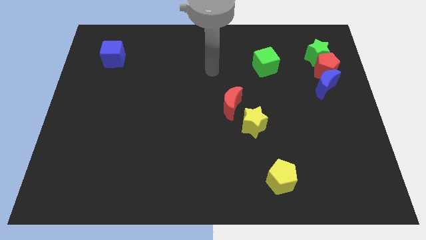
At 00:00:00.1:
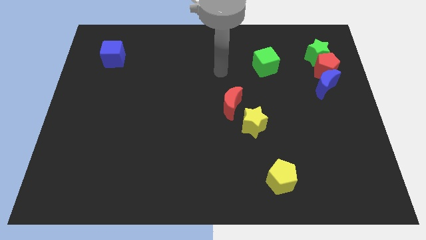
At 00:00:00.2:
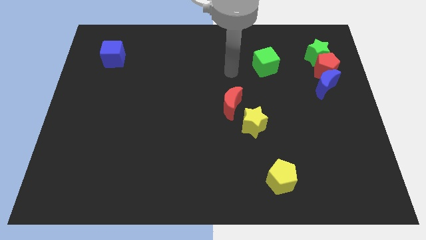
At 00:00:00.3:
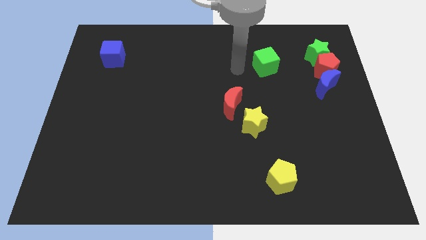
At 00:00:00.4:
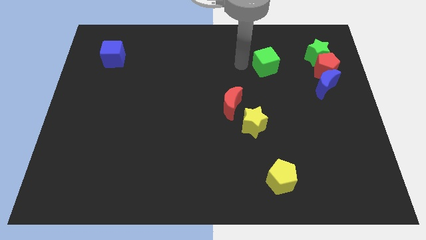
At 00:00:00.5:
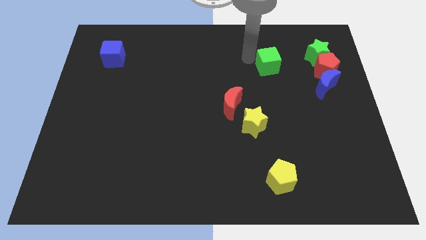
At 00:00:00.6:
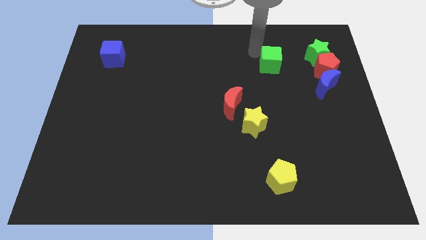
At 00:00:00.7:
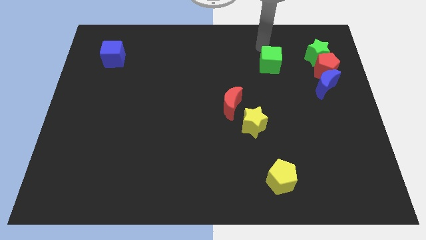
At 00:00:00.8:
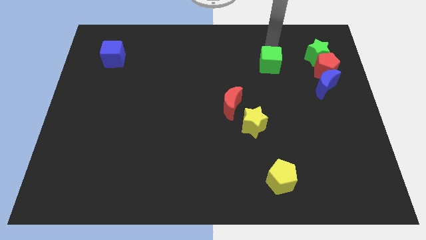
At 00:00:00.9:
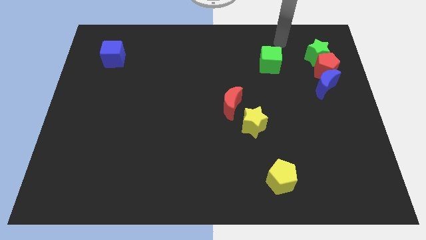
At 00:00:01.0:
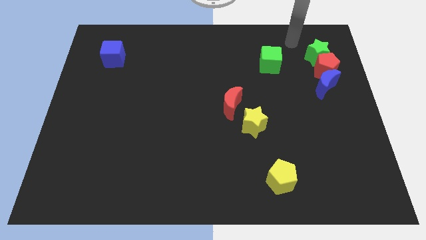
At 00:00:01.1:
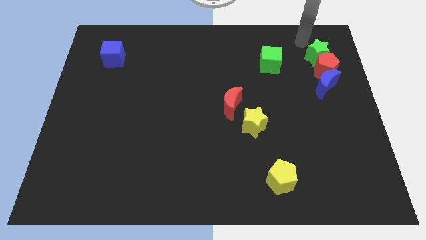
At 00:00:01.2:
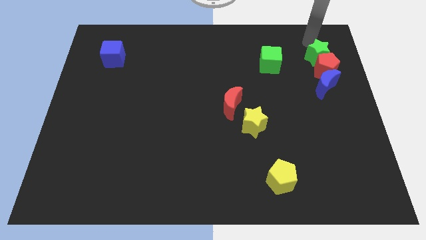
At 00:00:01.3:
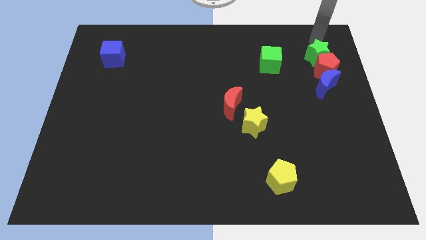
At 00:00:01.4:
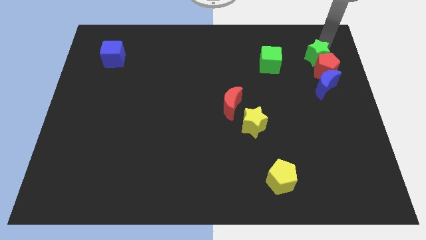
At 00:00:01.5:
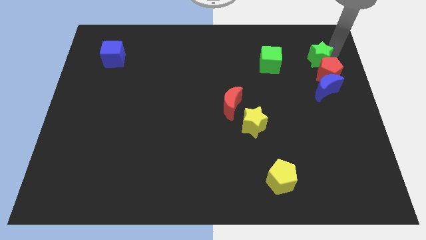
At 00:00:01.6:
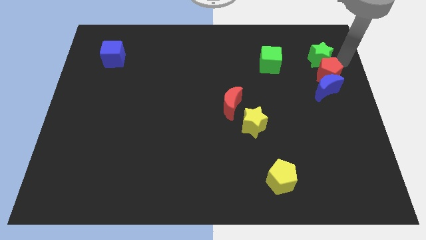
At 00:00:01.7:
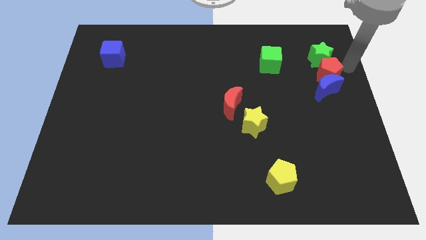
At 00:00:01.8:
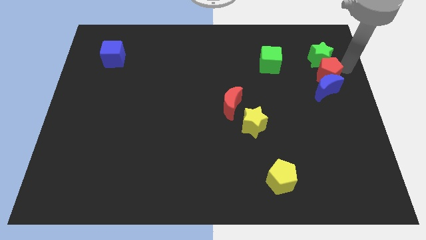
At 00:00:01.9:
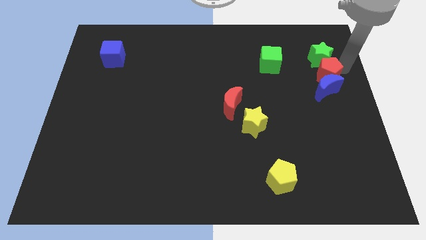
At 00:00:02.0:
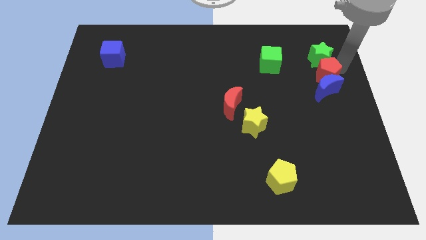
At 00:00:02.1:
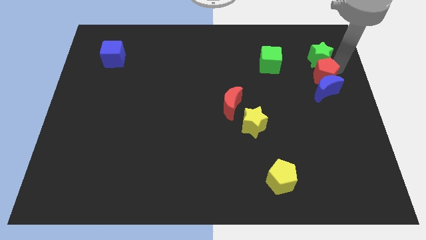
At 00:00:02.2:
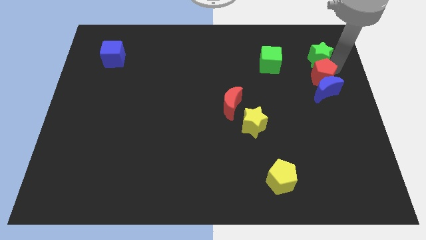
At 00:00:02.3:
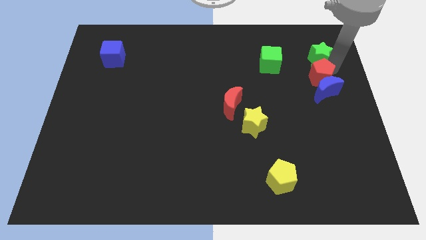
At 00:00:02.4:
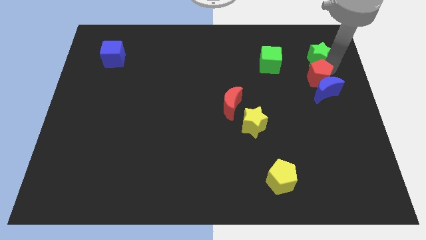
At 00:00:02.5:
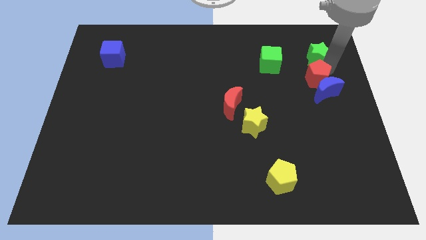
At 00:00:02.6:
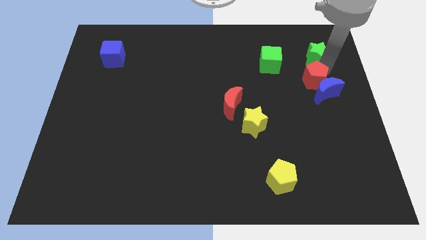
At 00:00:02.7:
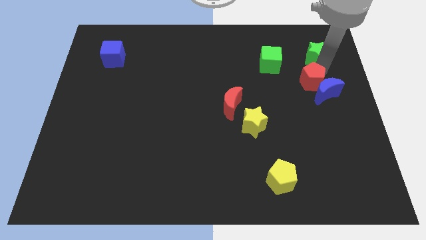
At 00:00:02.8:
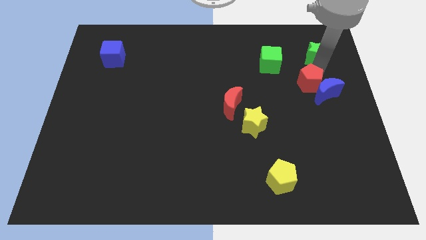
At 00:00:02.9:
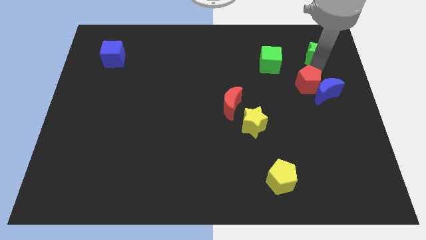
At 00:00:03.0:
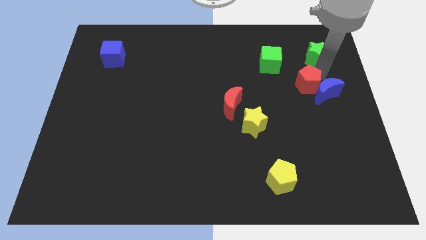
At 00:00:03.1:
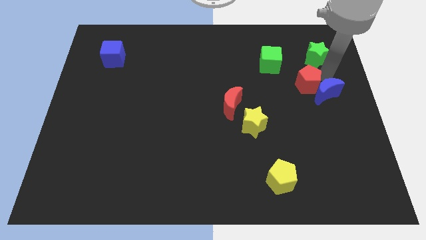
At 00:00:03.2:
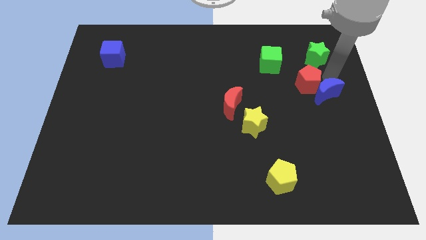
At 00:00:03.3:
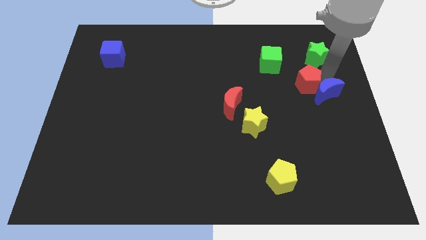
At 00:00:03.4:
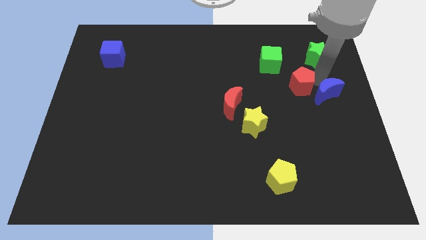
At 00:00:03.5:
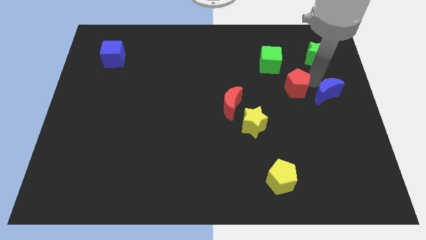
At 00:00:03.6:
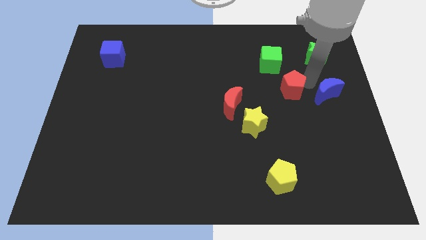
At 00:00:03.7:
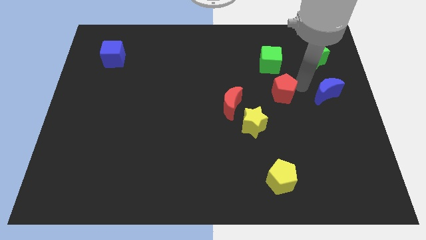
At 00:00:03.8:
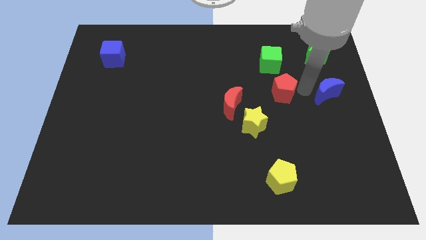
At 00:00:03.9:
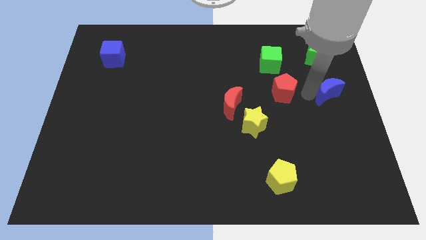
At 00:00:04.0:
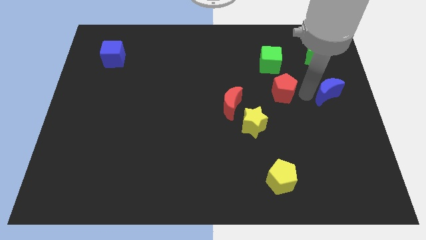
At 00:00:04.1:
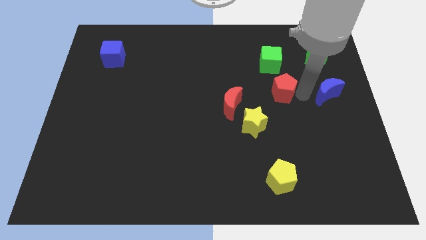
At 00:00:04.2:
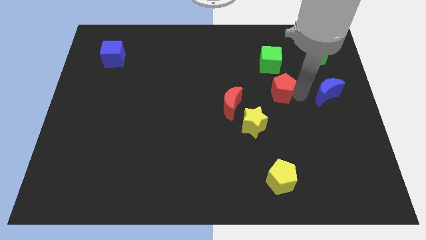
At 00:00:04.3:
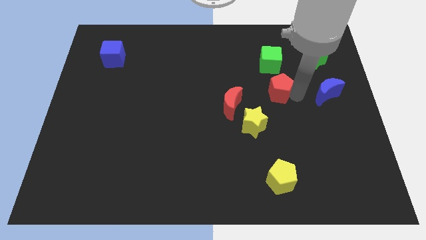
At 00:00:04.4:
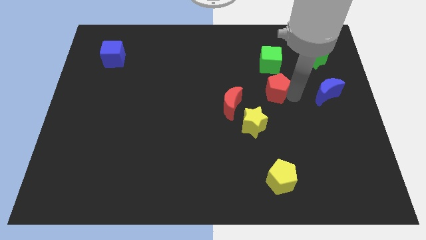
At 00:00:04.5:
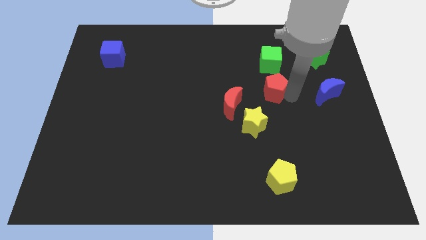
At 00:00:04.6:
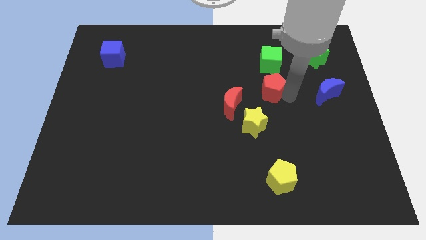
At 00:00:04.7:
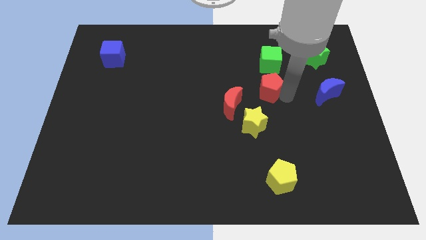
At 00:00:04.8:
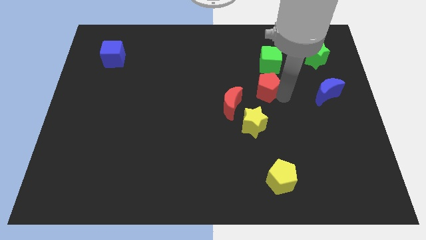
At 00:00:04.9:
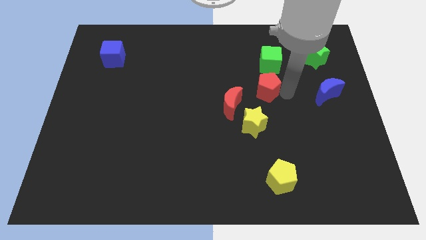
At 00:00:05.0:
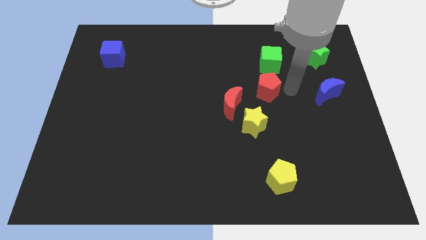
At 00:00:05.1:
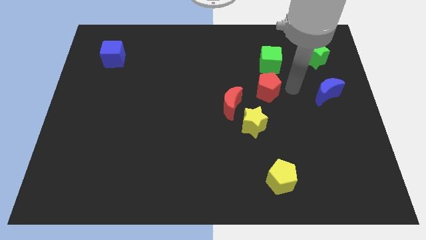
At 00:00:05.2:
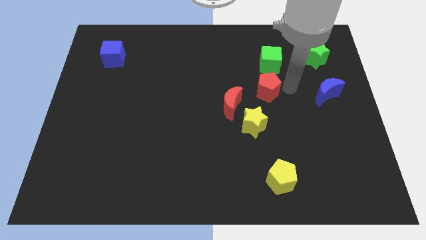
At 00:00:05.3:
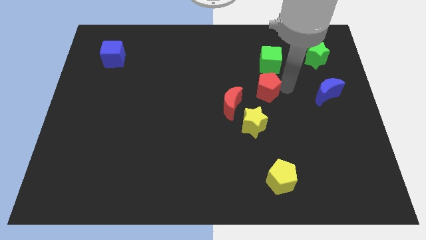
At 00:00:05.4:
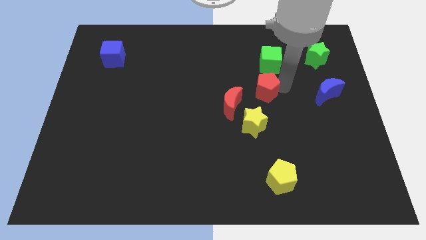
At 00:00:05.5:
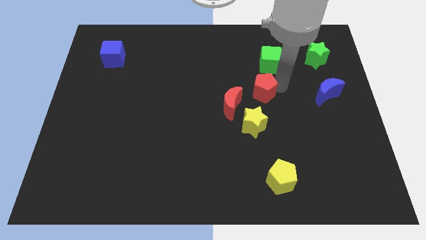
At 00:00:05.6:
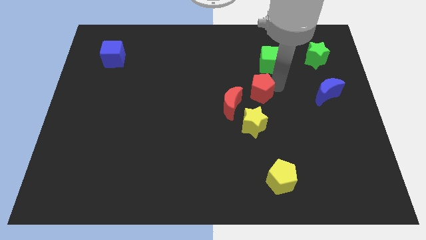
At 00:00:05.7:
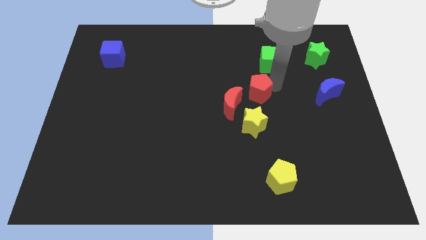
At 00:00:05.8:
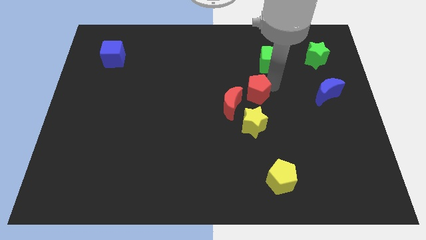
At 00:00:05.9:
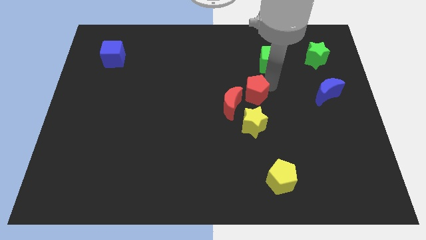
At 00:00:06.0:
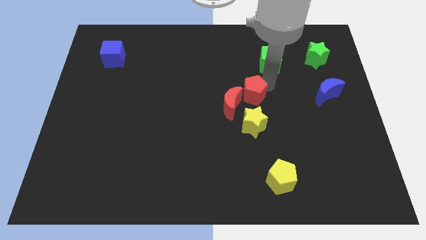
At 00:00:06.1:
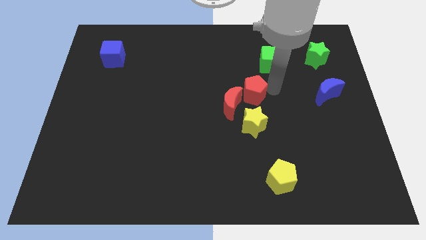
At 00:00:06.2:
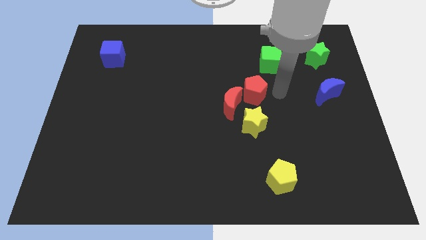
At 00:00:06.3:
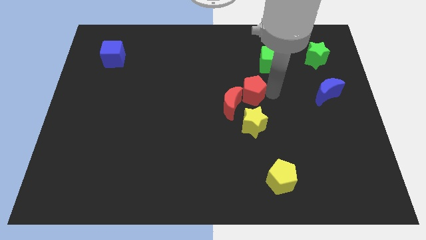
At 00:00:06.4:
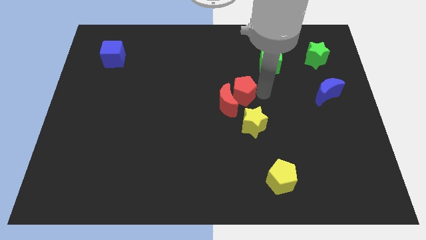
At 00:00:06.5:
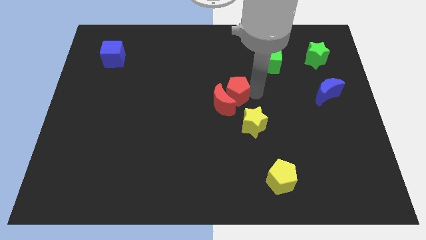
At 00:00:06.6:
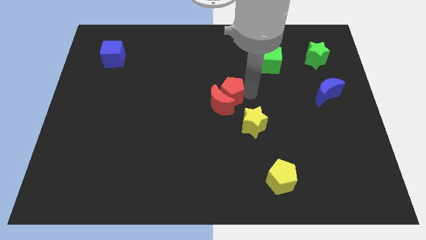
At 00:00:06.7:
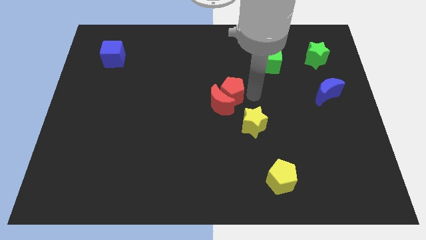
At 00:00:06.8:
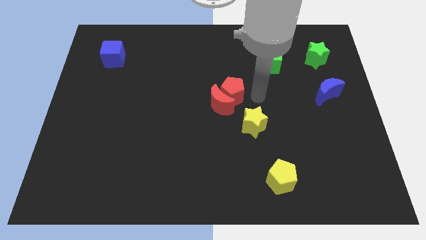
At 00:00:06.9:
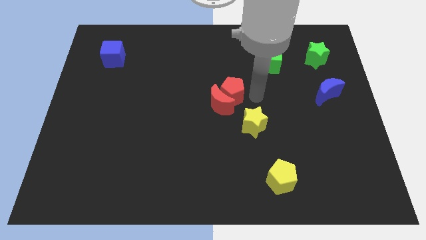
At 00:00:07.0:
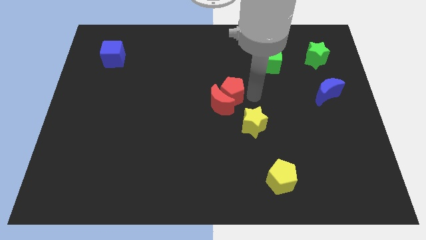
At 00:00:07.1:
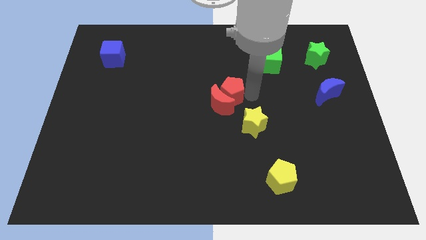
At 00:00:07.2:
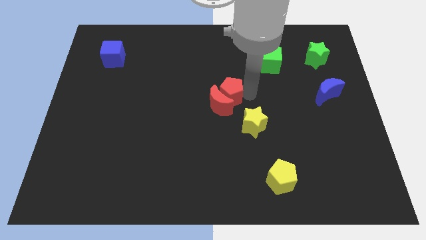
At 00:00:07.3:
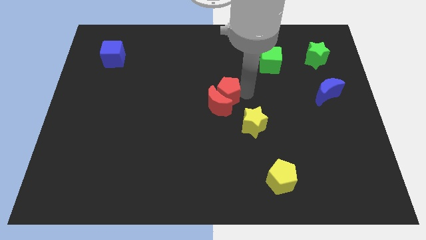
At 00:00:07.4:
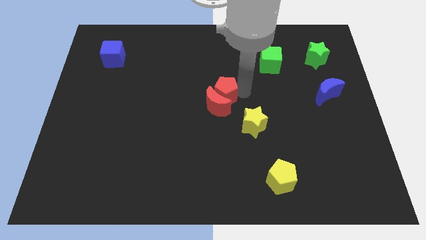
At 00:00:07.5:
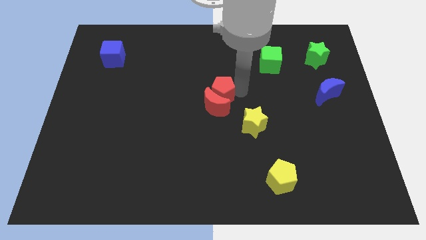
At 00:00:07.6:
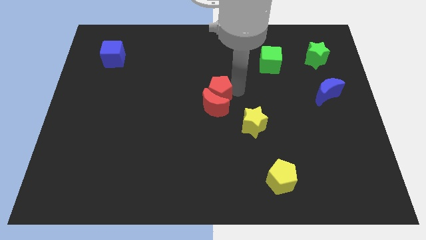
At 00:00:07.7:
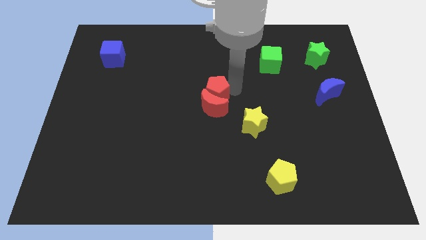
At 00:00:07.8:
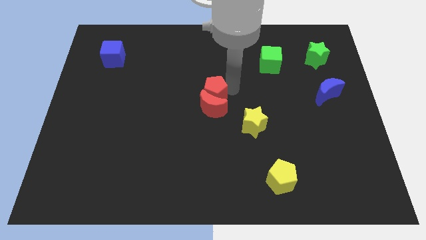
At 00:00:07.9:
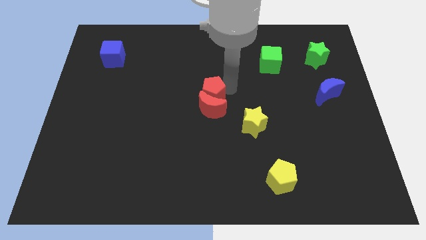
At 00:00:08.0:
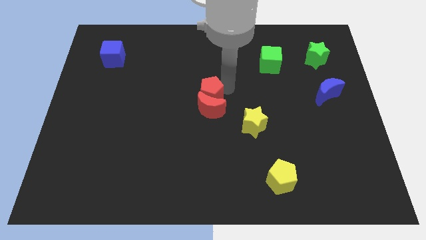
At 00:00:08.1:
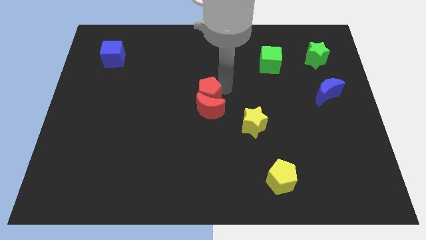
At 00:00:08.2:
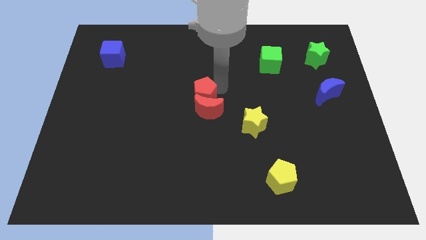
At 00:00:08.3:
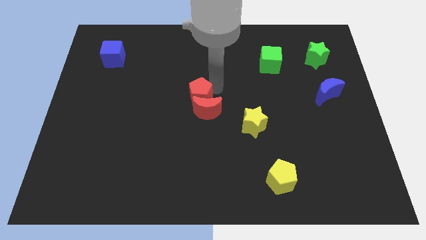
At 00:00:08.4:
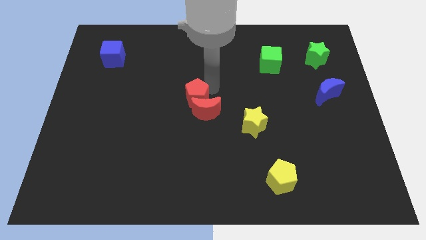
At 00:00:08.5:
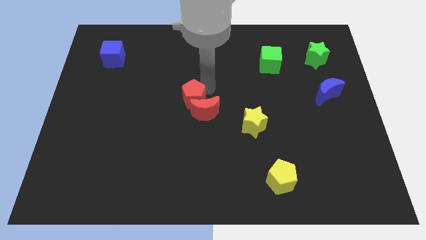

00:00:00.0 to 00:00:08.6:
put the red pentagon to the left side of the red moon
